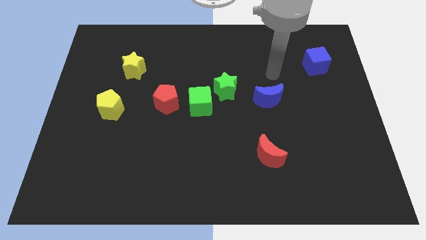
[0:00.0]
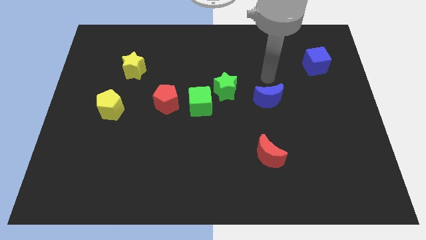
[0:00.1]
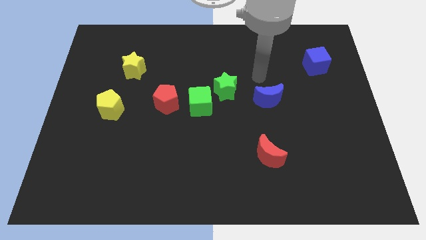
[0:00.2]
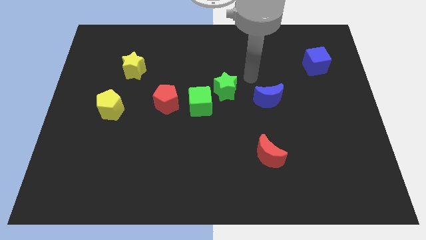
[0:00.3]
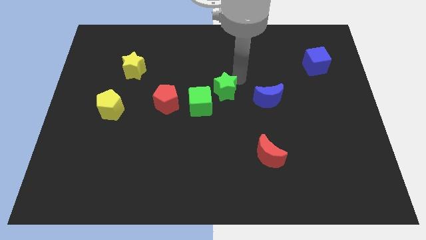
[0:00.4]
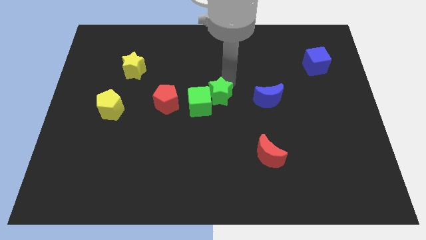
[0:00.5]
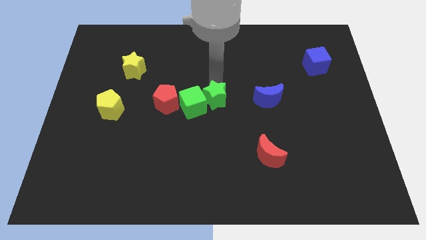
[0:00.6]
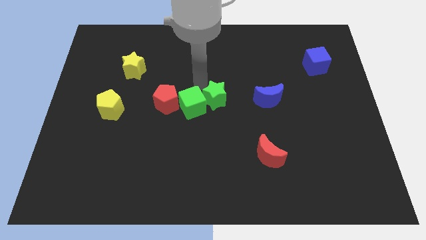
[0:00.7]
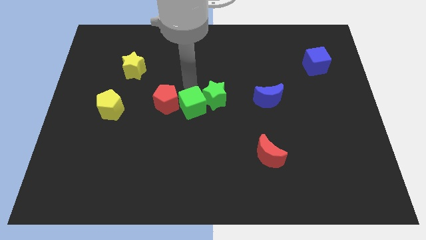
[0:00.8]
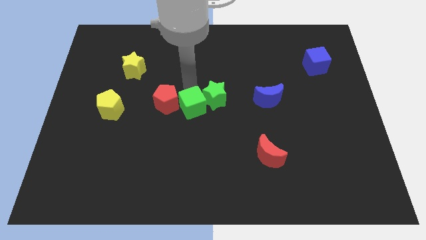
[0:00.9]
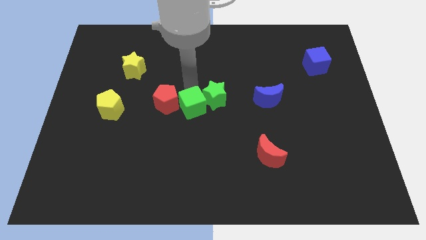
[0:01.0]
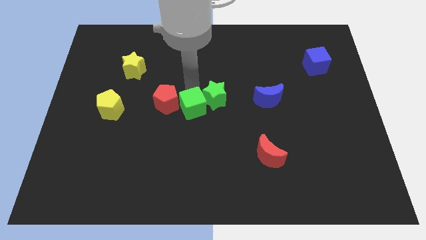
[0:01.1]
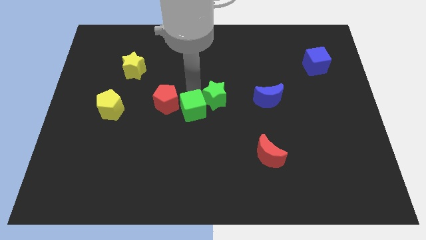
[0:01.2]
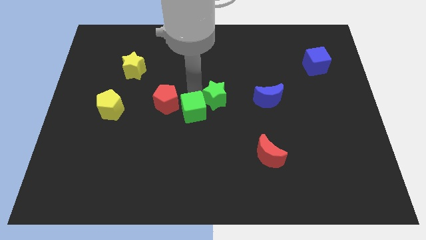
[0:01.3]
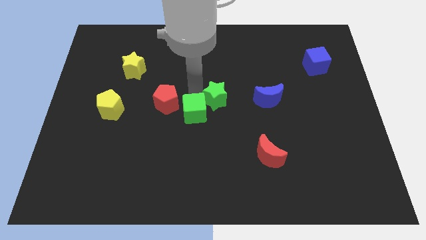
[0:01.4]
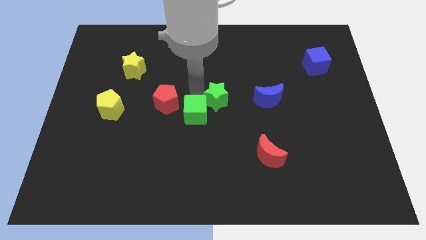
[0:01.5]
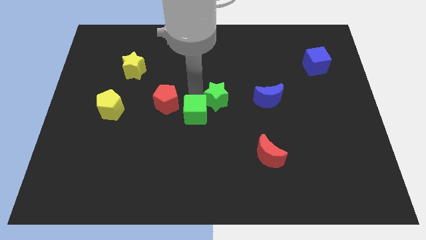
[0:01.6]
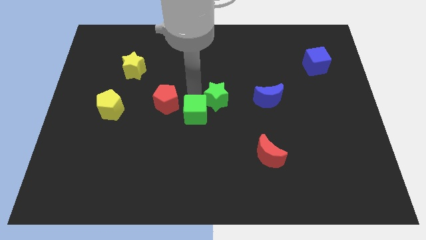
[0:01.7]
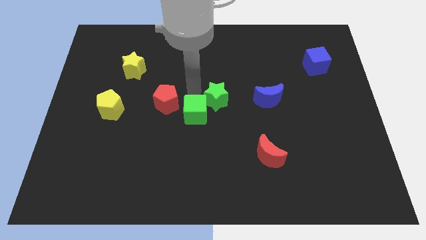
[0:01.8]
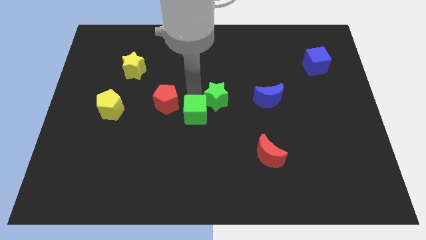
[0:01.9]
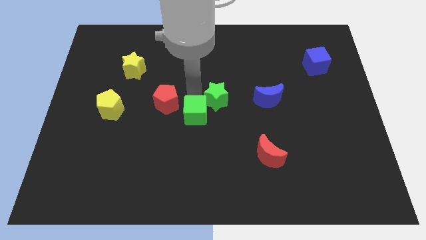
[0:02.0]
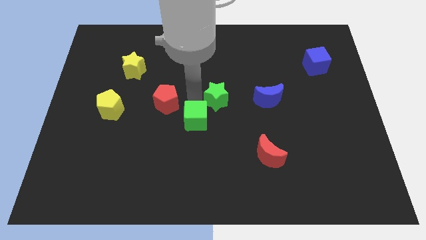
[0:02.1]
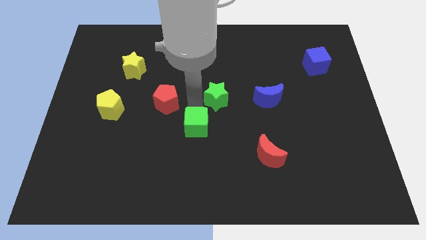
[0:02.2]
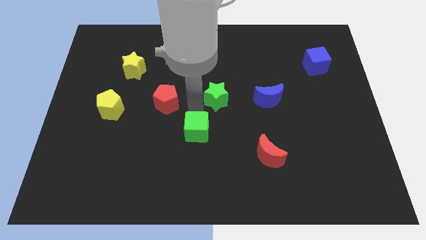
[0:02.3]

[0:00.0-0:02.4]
move the green cube down a bit

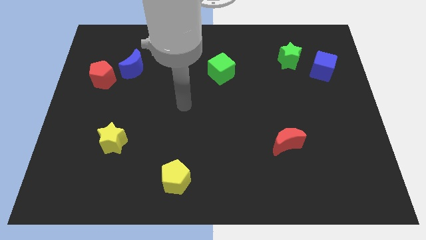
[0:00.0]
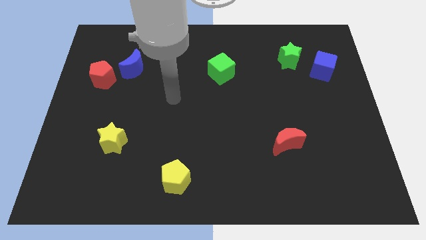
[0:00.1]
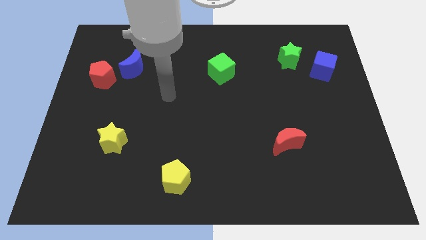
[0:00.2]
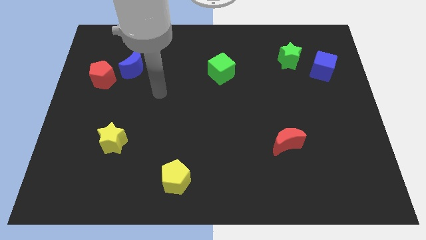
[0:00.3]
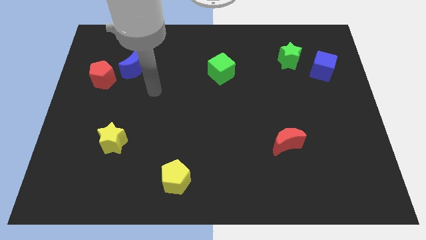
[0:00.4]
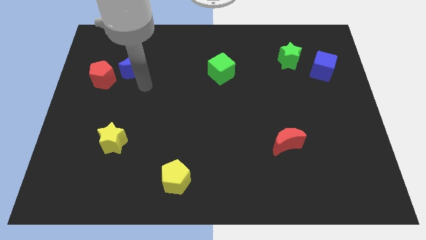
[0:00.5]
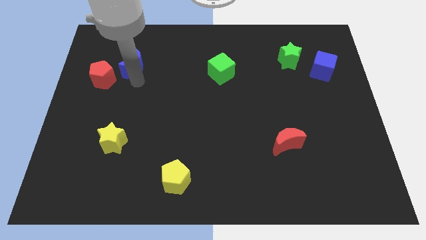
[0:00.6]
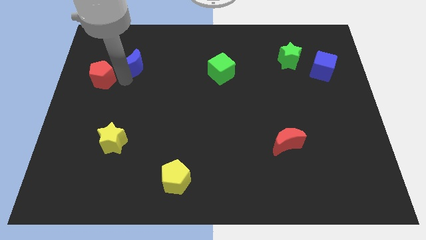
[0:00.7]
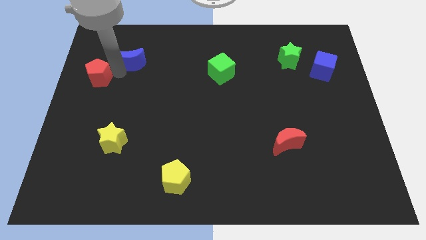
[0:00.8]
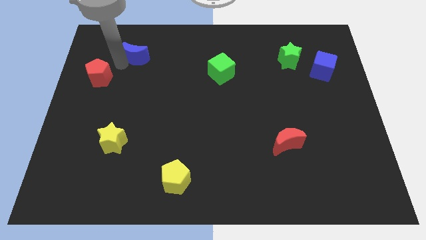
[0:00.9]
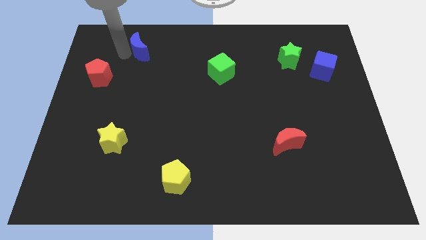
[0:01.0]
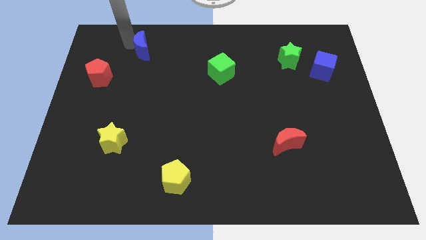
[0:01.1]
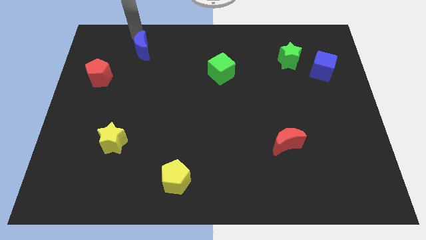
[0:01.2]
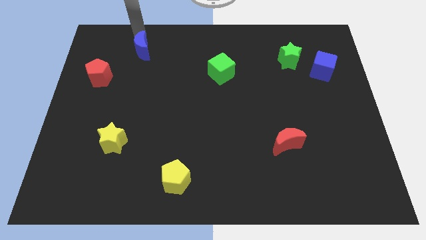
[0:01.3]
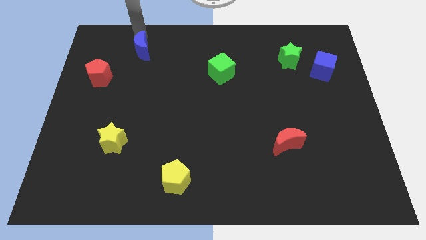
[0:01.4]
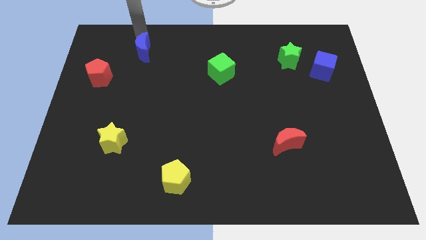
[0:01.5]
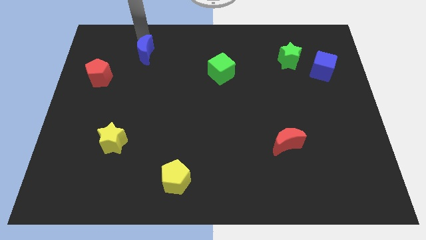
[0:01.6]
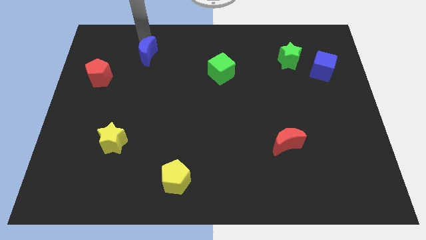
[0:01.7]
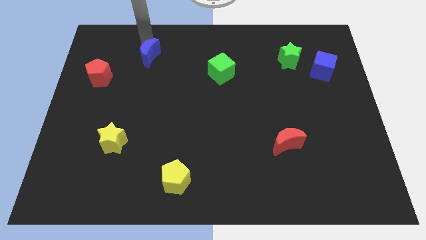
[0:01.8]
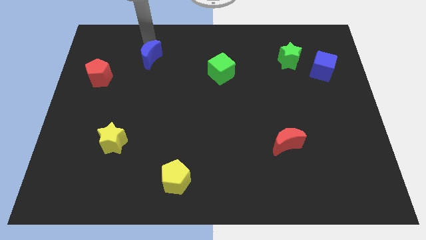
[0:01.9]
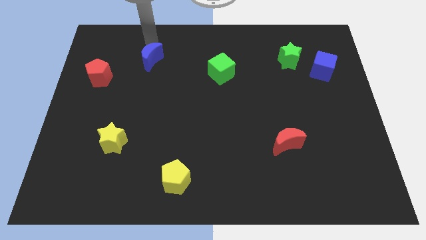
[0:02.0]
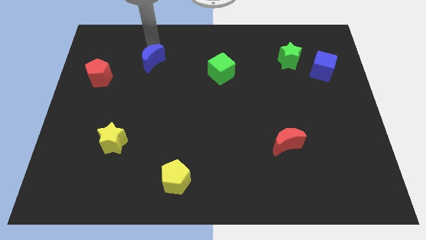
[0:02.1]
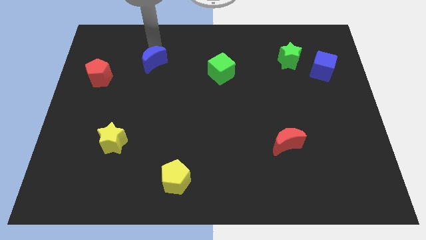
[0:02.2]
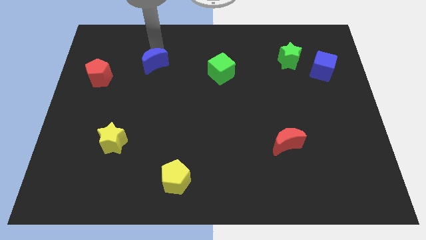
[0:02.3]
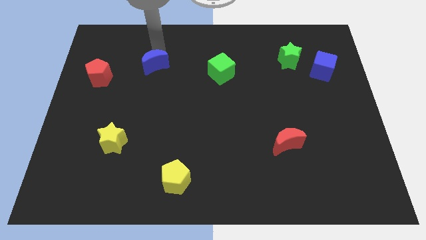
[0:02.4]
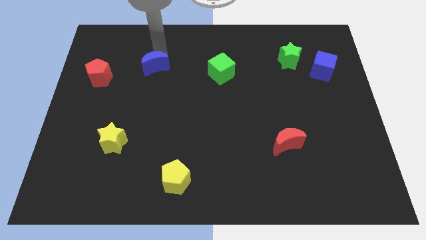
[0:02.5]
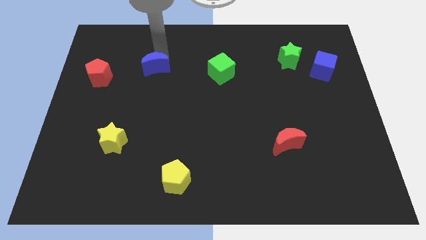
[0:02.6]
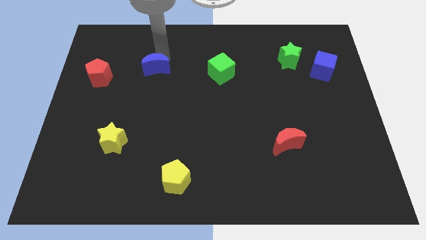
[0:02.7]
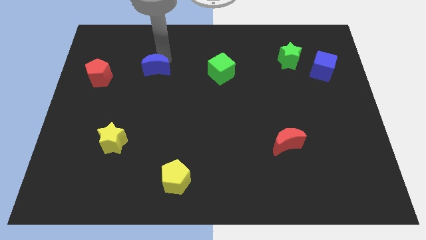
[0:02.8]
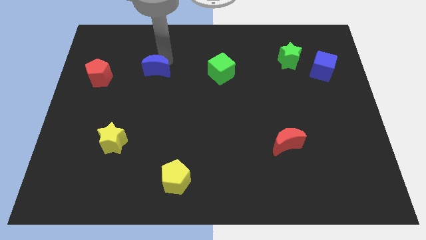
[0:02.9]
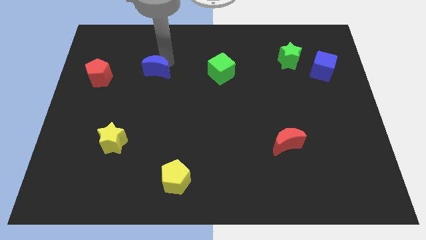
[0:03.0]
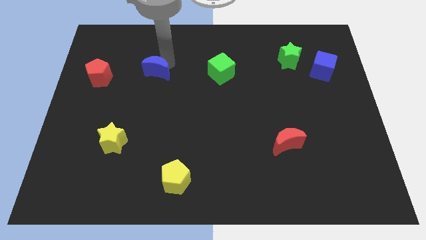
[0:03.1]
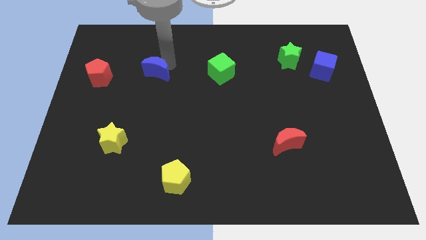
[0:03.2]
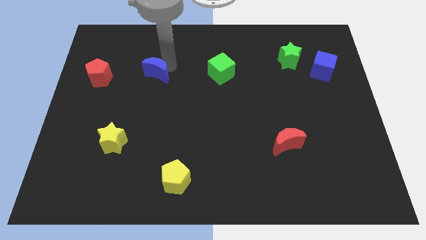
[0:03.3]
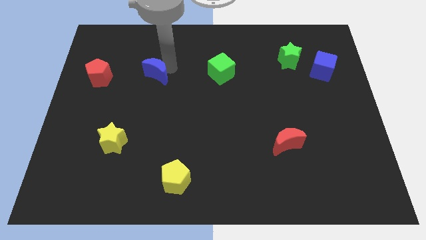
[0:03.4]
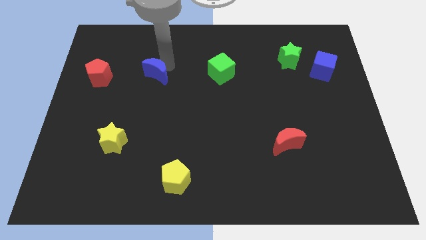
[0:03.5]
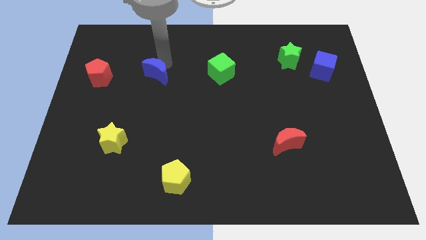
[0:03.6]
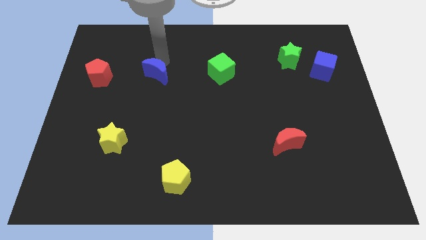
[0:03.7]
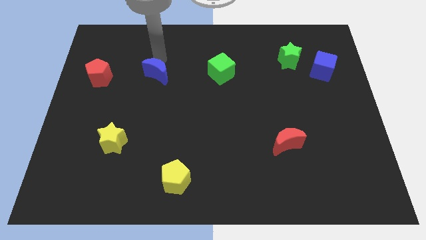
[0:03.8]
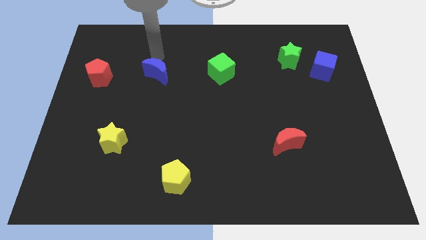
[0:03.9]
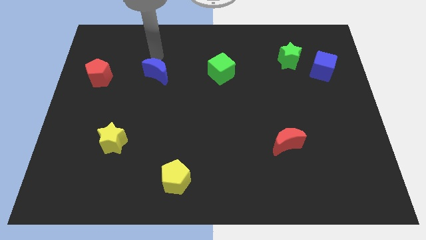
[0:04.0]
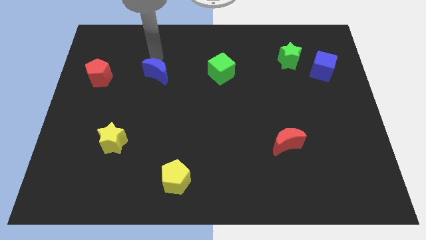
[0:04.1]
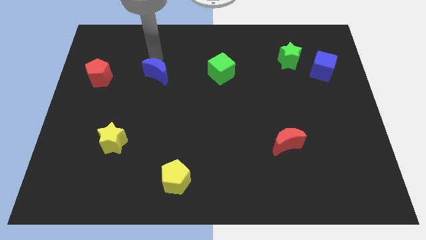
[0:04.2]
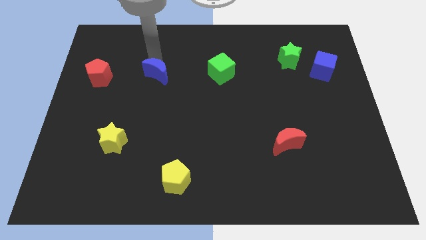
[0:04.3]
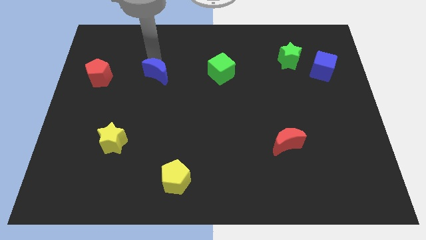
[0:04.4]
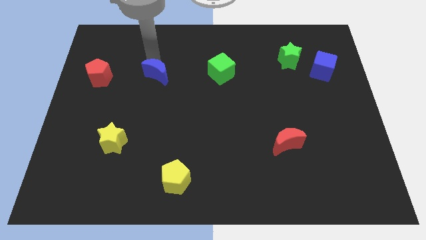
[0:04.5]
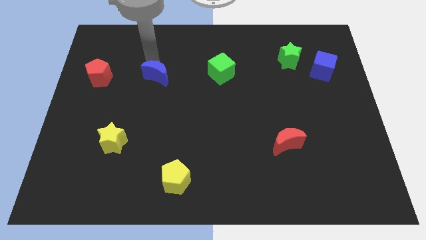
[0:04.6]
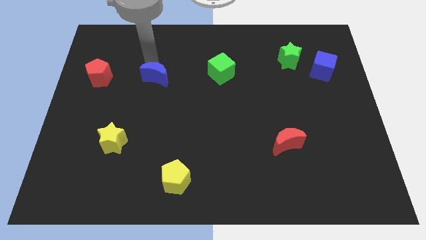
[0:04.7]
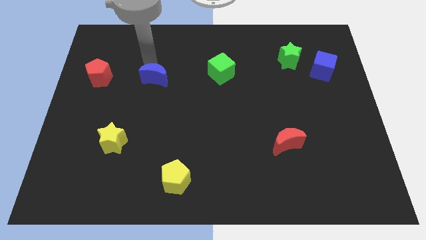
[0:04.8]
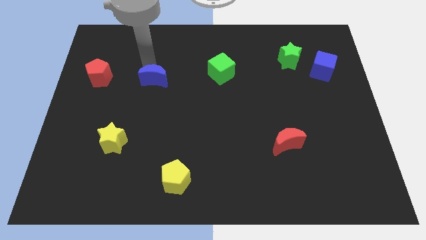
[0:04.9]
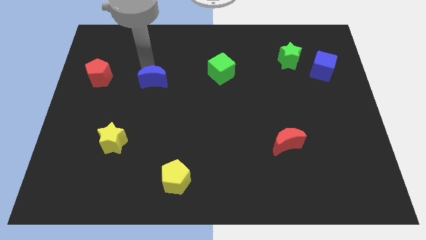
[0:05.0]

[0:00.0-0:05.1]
push the blue moon downwards and to the right diagonally a bit

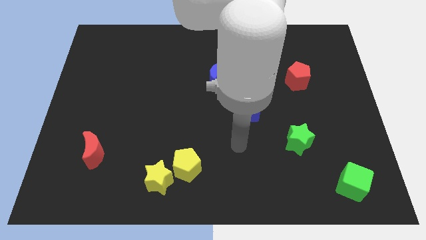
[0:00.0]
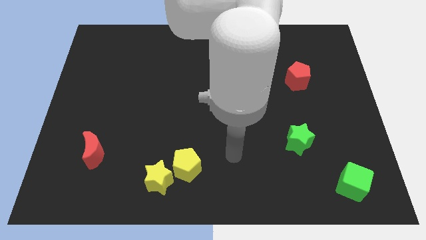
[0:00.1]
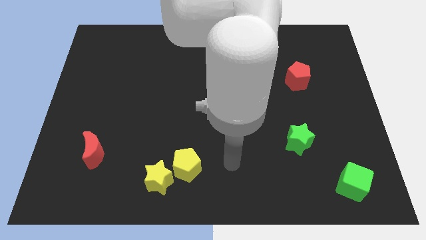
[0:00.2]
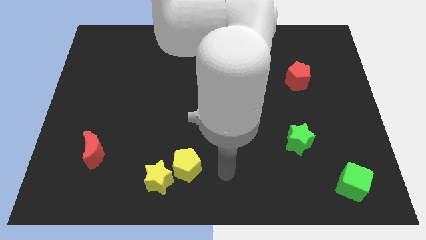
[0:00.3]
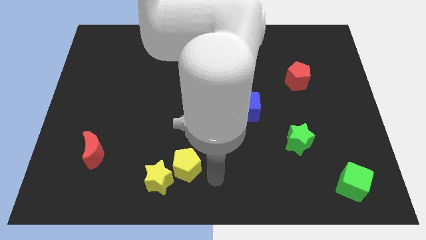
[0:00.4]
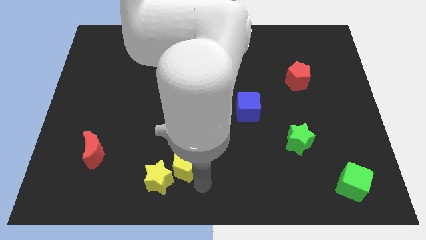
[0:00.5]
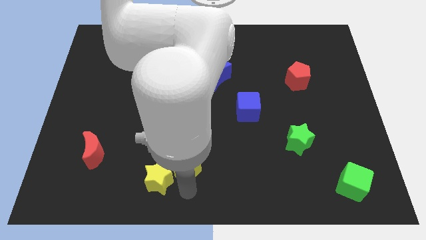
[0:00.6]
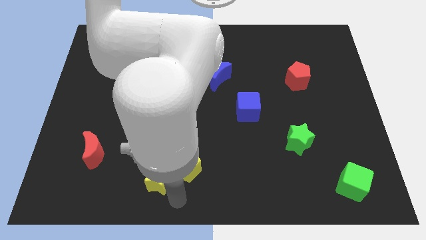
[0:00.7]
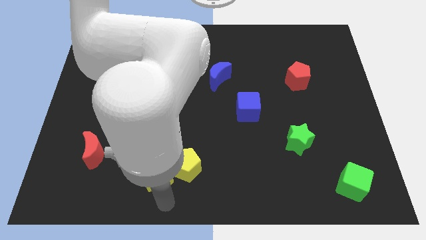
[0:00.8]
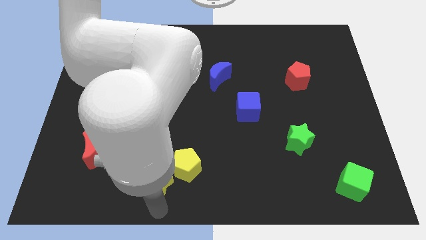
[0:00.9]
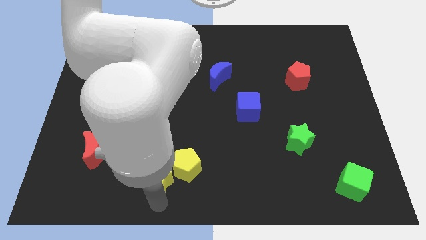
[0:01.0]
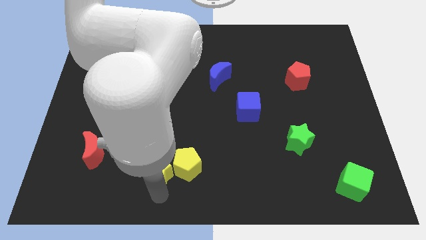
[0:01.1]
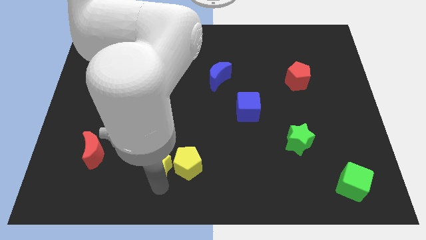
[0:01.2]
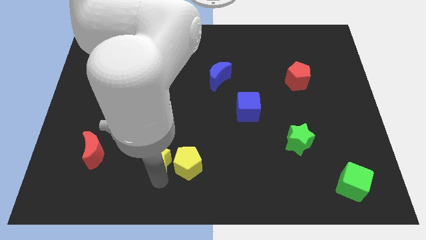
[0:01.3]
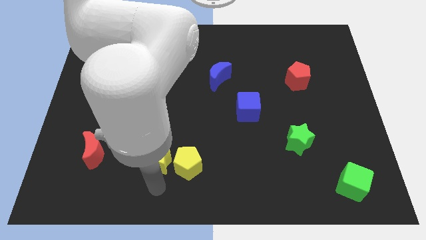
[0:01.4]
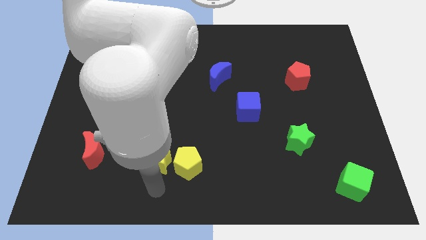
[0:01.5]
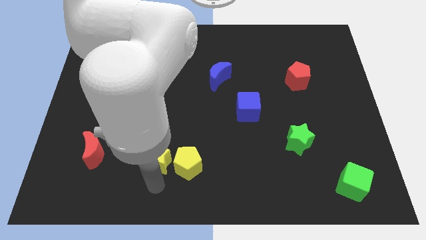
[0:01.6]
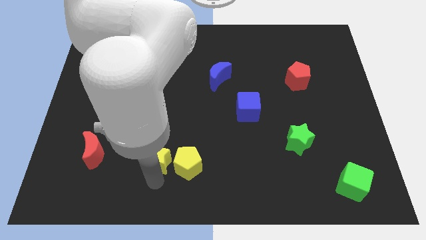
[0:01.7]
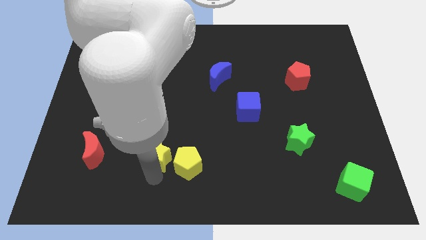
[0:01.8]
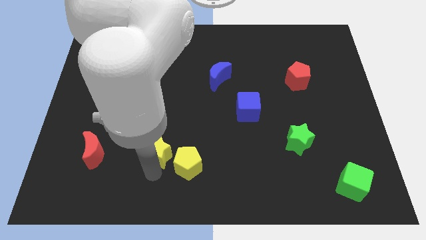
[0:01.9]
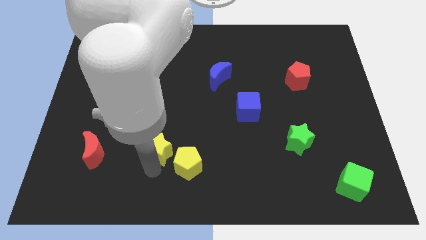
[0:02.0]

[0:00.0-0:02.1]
slide the yellow star upwards a little
